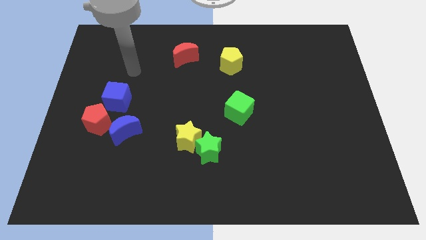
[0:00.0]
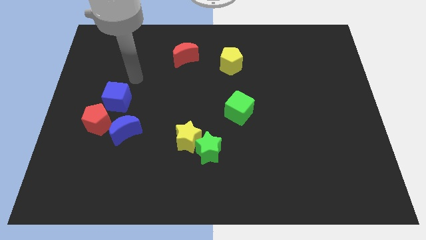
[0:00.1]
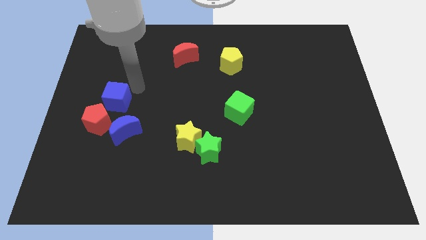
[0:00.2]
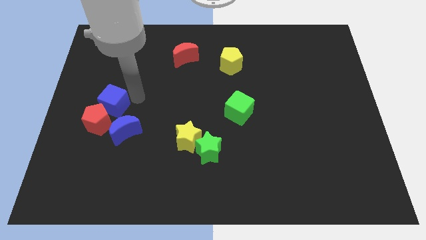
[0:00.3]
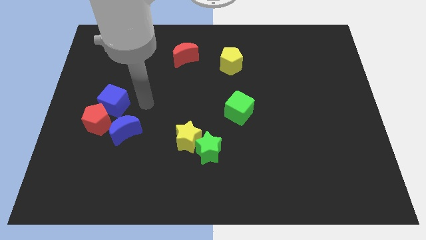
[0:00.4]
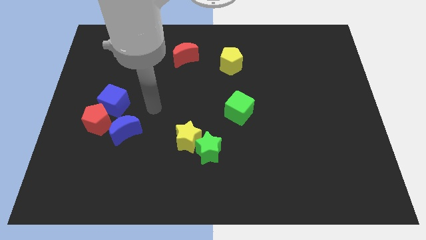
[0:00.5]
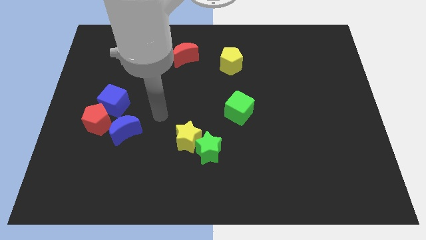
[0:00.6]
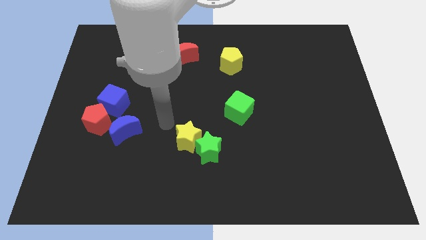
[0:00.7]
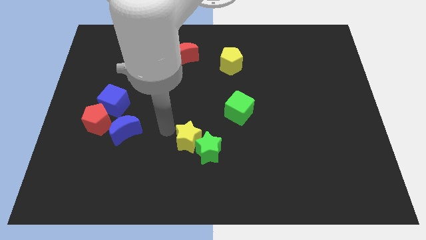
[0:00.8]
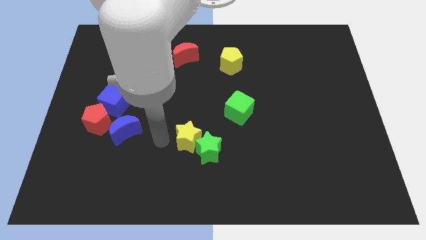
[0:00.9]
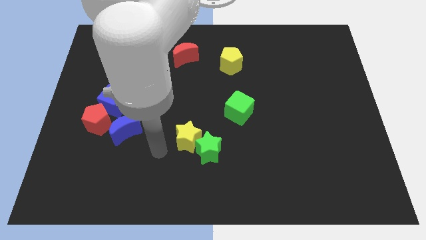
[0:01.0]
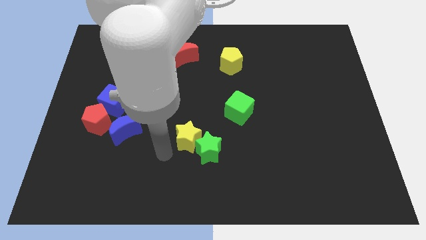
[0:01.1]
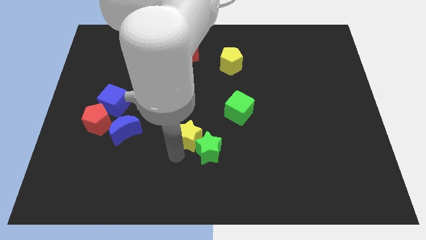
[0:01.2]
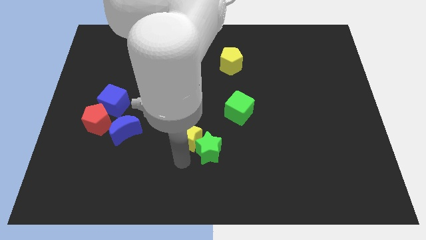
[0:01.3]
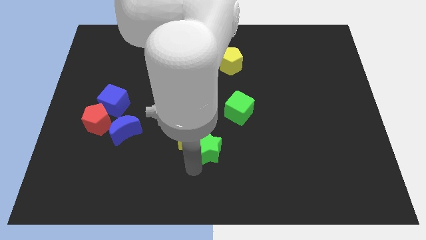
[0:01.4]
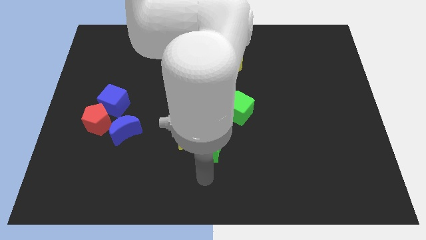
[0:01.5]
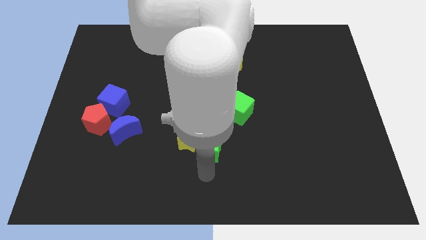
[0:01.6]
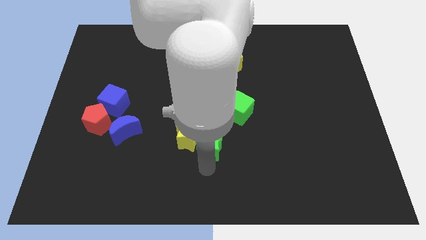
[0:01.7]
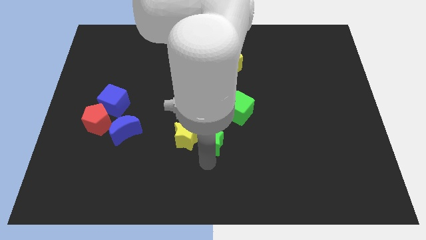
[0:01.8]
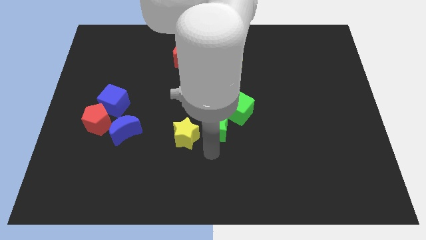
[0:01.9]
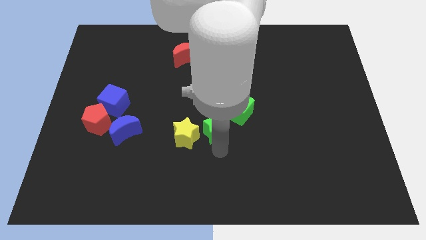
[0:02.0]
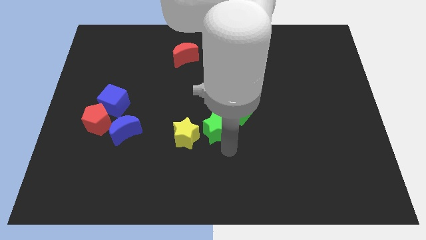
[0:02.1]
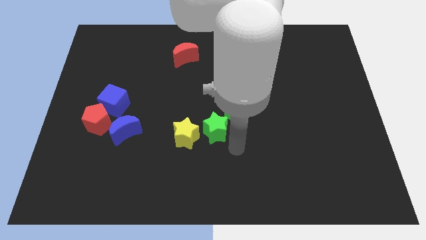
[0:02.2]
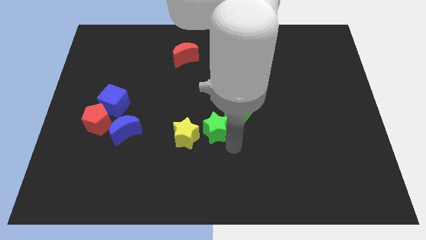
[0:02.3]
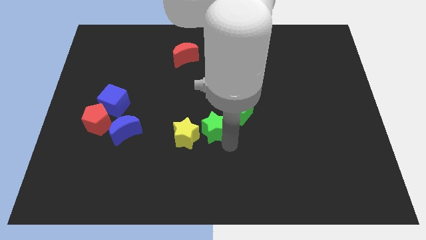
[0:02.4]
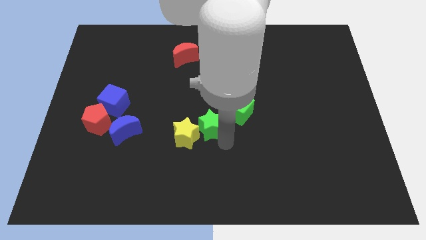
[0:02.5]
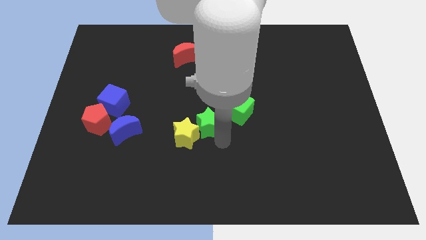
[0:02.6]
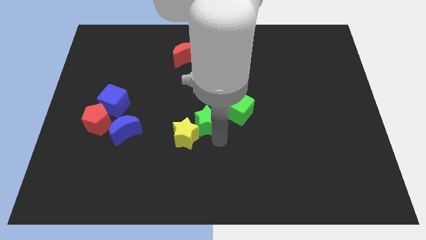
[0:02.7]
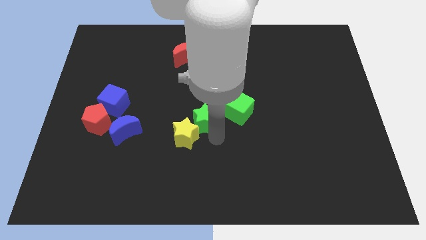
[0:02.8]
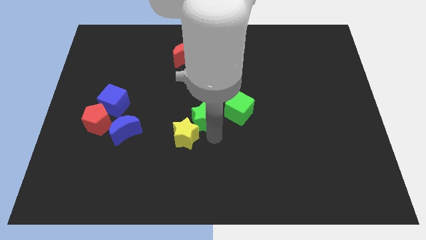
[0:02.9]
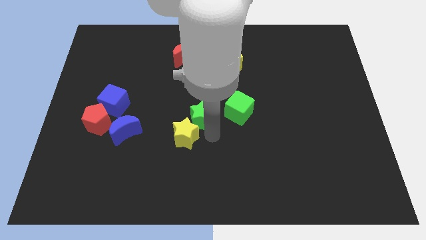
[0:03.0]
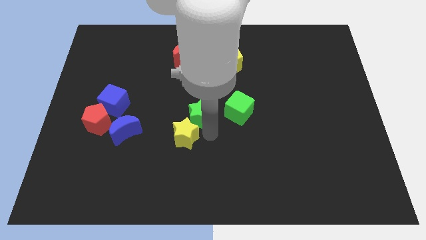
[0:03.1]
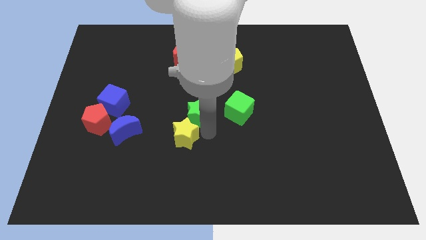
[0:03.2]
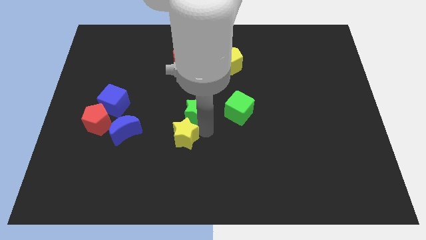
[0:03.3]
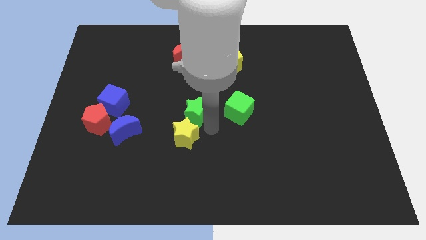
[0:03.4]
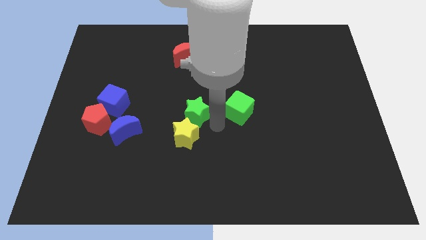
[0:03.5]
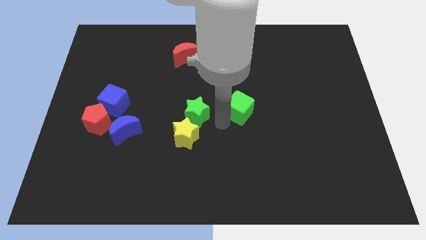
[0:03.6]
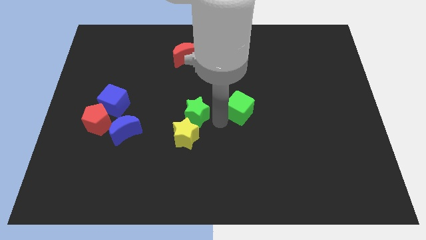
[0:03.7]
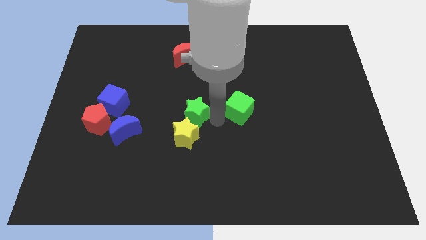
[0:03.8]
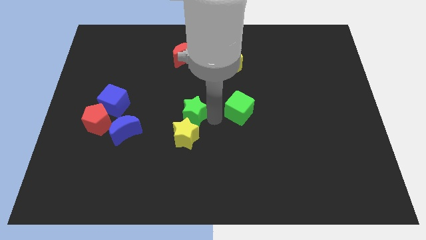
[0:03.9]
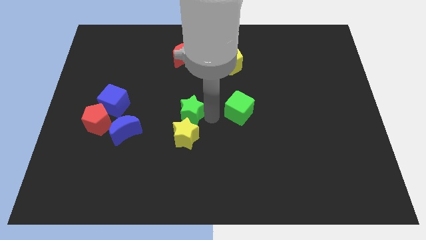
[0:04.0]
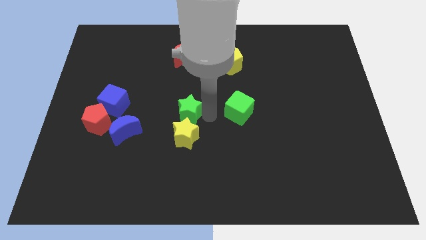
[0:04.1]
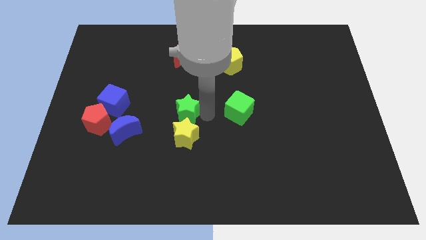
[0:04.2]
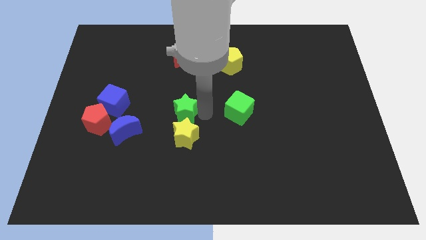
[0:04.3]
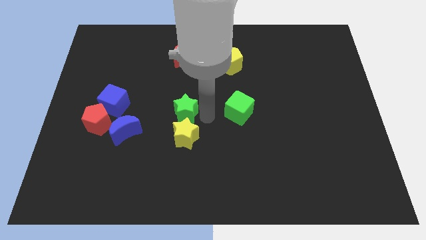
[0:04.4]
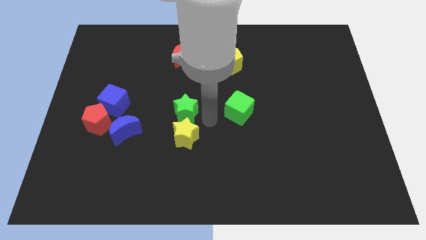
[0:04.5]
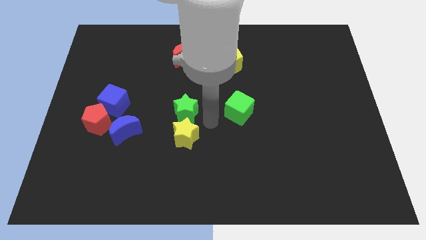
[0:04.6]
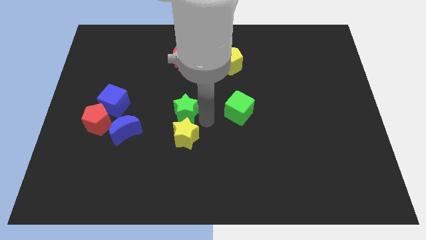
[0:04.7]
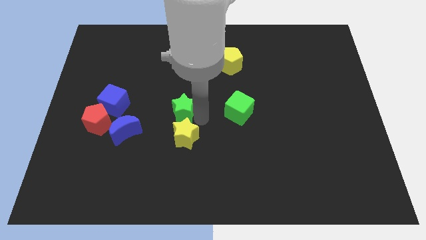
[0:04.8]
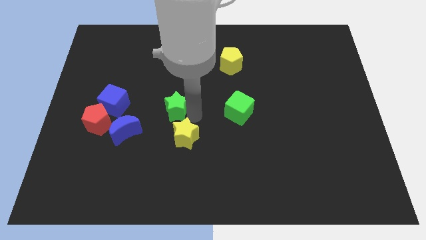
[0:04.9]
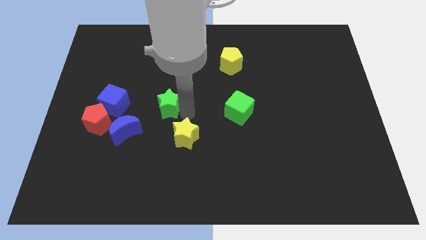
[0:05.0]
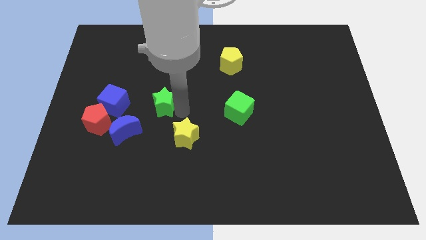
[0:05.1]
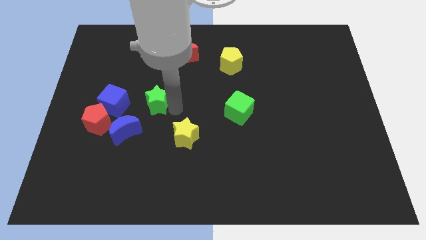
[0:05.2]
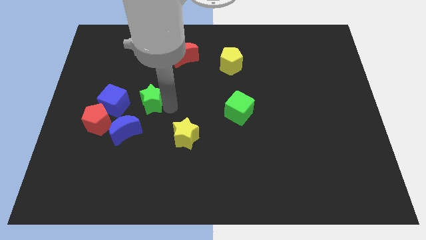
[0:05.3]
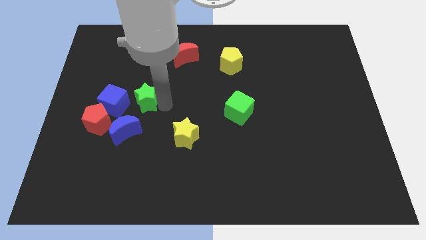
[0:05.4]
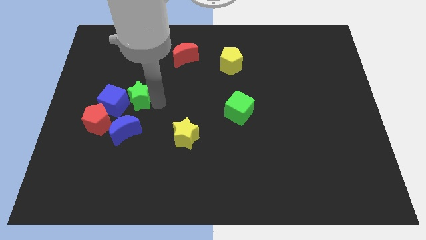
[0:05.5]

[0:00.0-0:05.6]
put the green star to the blue cube

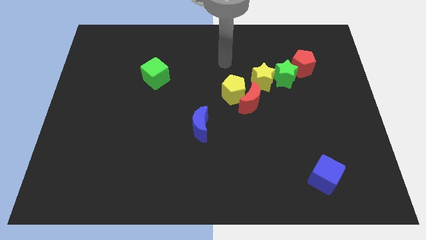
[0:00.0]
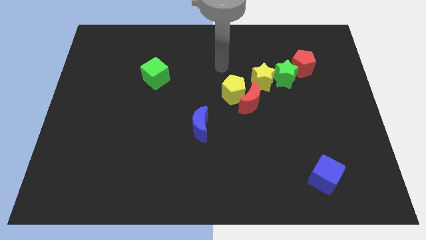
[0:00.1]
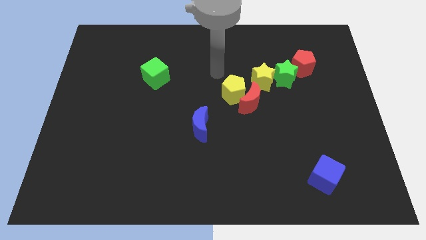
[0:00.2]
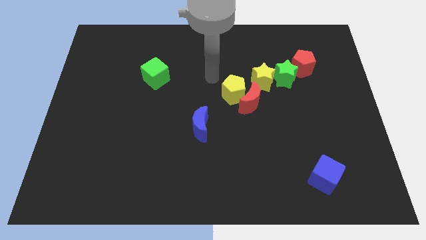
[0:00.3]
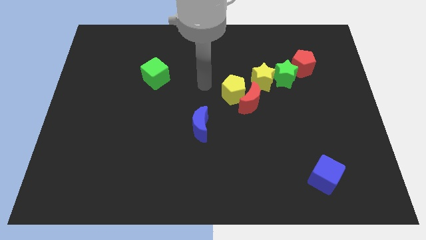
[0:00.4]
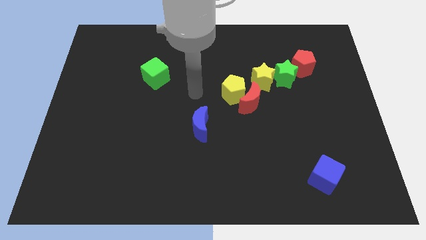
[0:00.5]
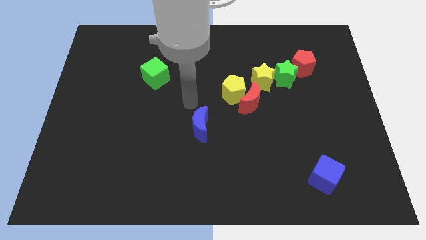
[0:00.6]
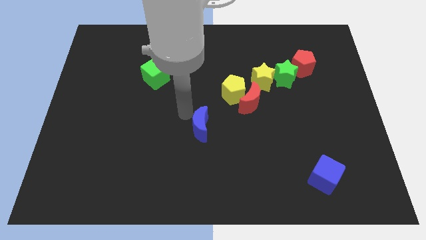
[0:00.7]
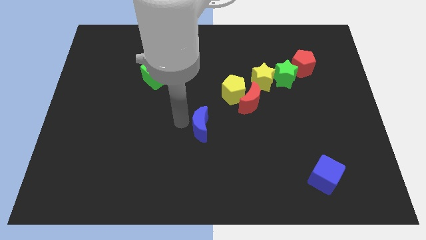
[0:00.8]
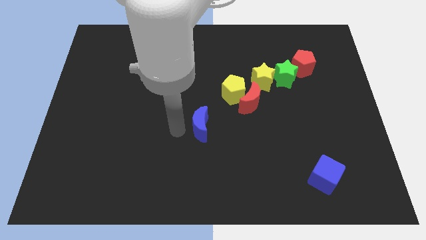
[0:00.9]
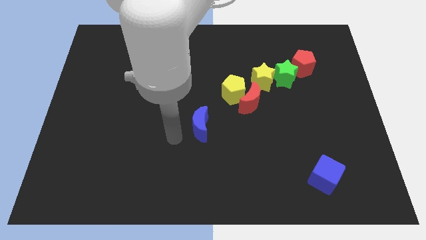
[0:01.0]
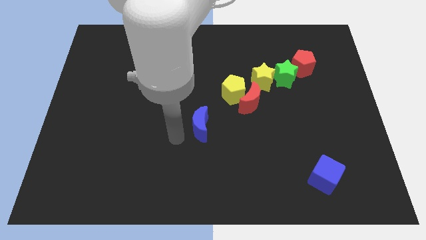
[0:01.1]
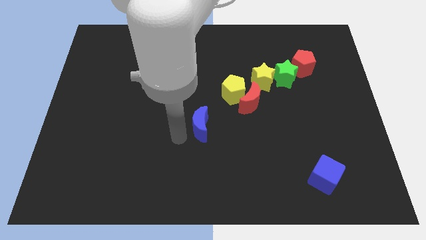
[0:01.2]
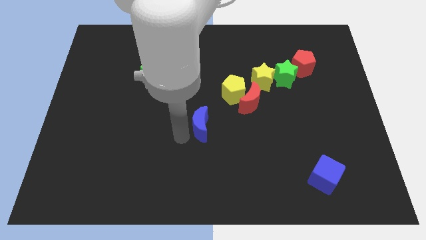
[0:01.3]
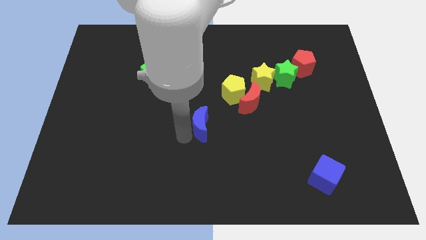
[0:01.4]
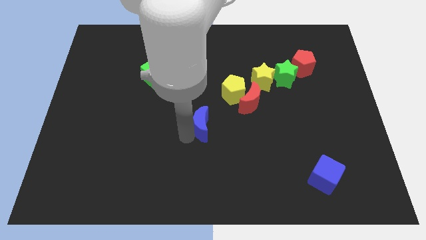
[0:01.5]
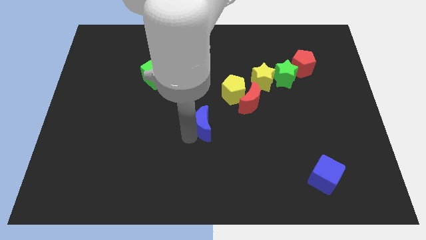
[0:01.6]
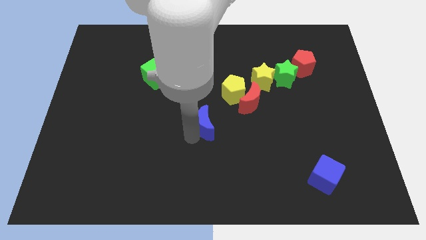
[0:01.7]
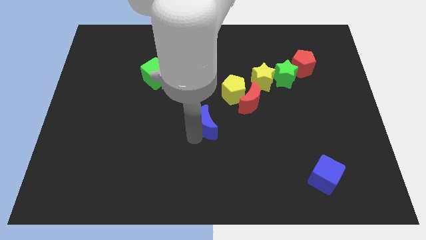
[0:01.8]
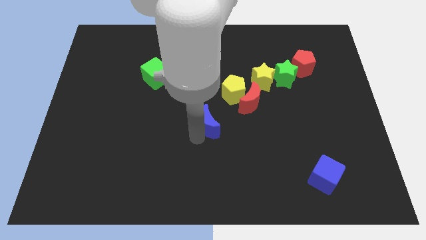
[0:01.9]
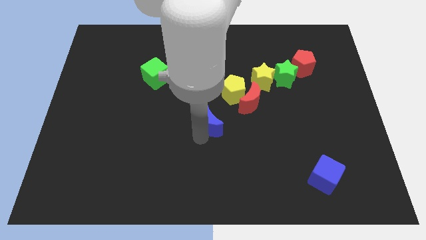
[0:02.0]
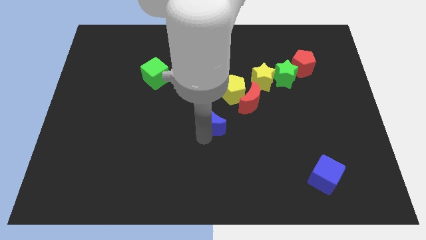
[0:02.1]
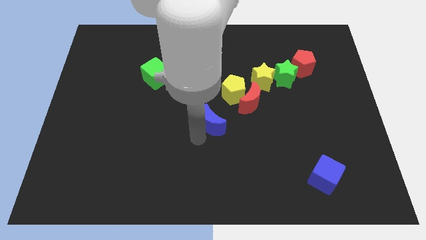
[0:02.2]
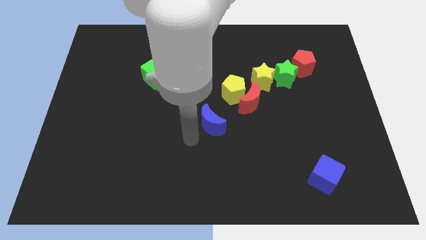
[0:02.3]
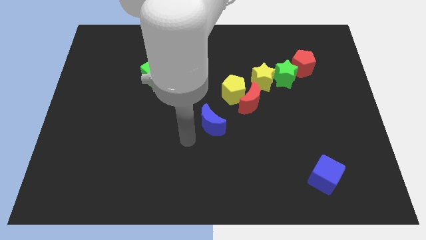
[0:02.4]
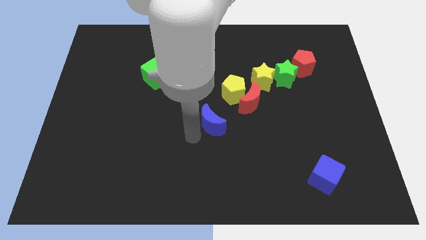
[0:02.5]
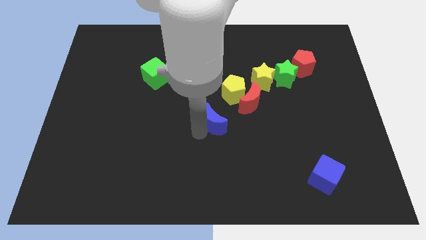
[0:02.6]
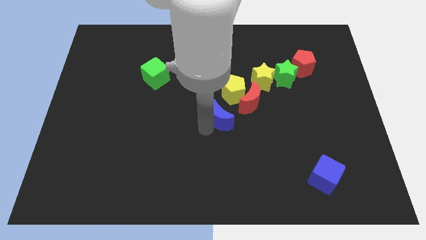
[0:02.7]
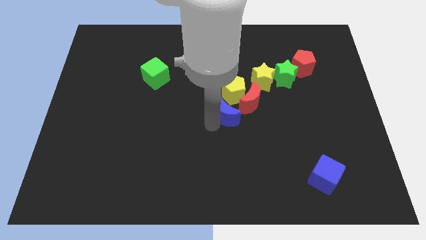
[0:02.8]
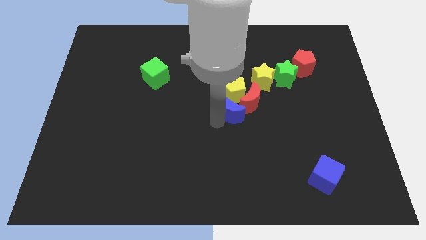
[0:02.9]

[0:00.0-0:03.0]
push the blue moon towards the red moon
